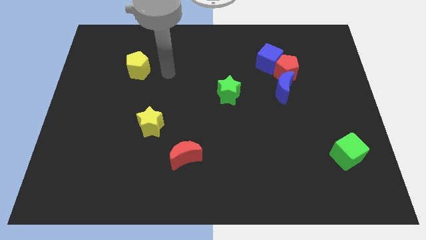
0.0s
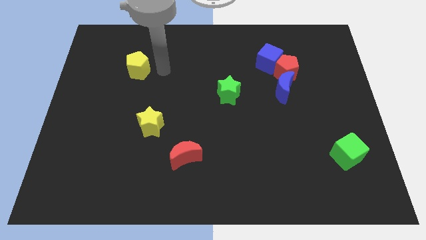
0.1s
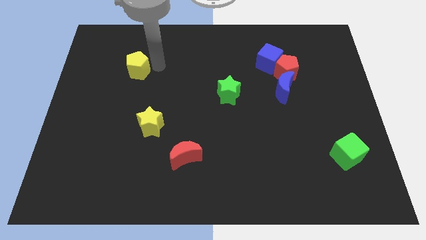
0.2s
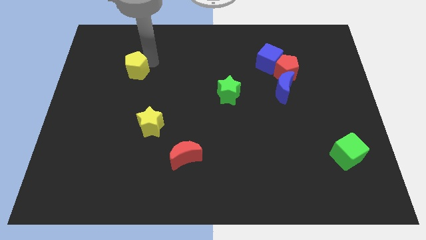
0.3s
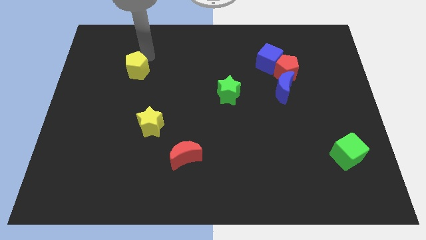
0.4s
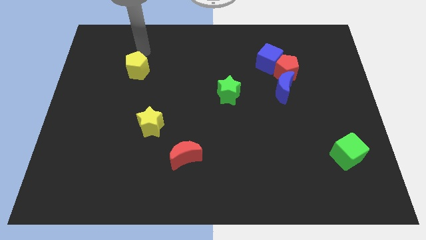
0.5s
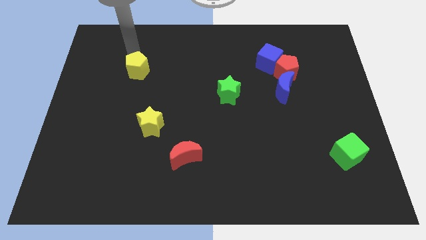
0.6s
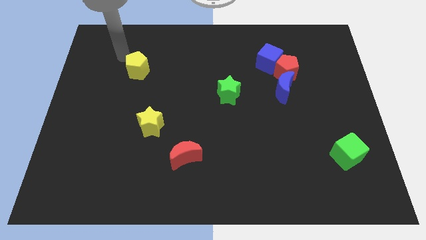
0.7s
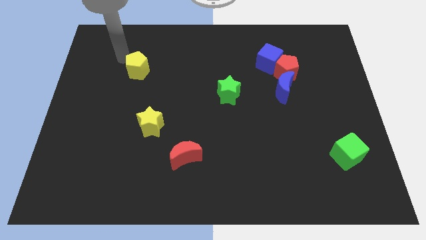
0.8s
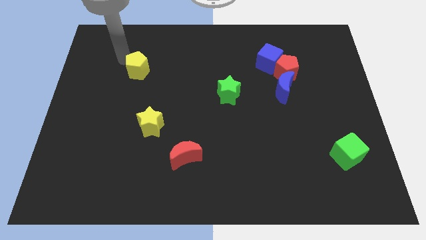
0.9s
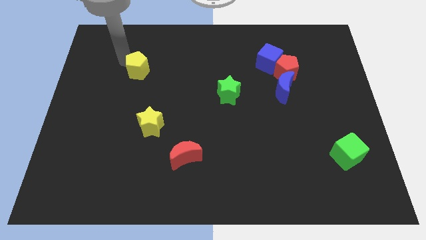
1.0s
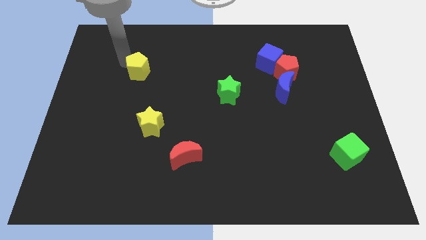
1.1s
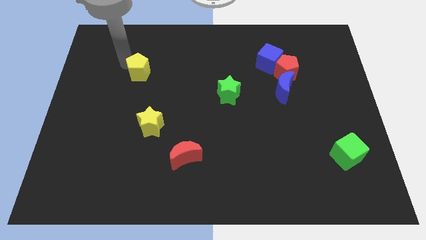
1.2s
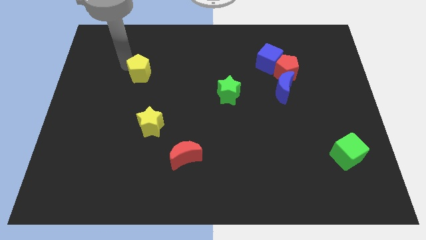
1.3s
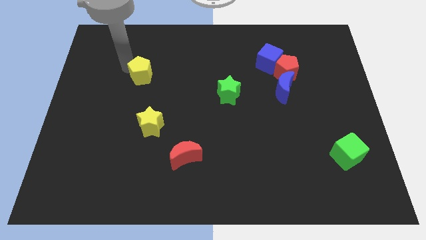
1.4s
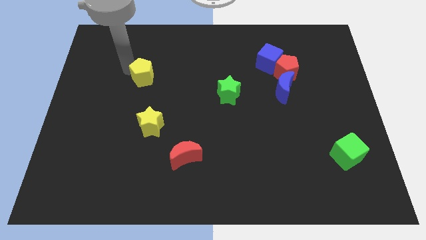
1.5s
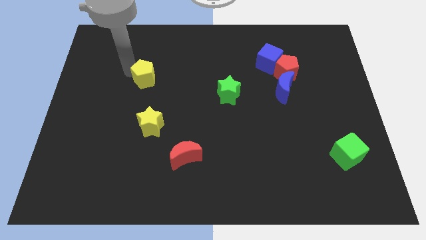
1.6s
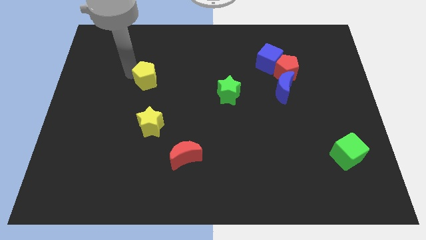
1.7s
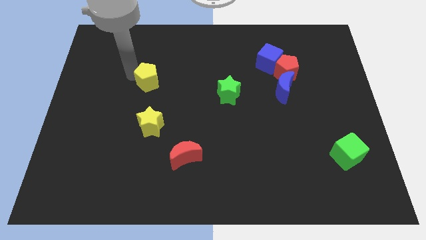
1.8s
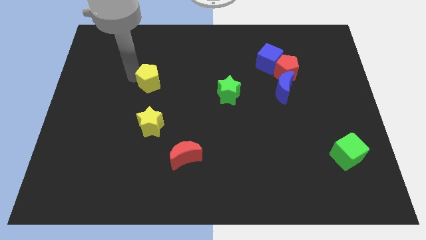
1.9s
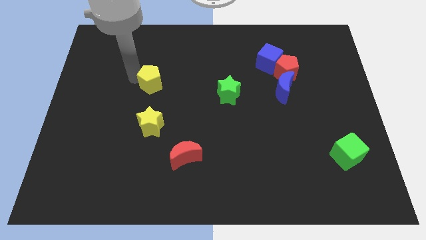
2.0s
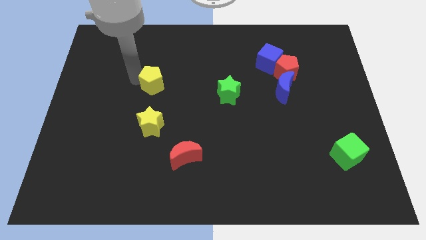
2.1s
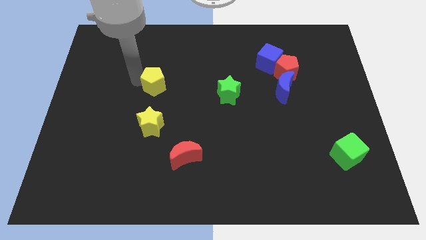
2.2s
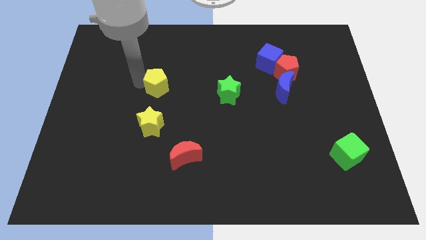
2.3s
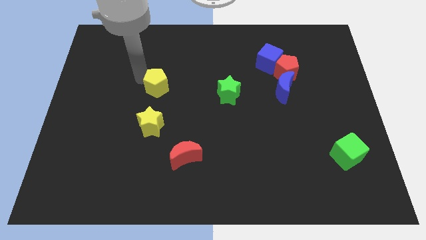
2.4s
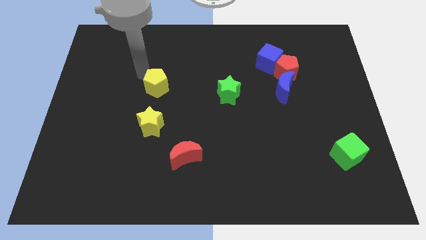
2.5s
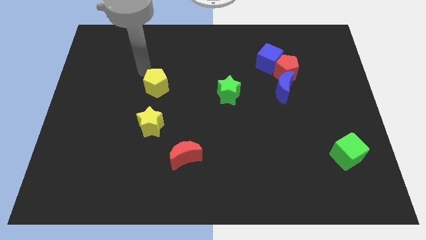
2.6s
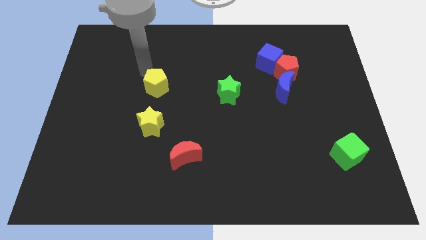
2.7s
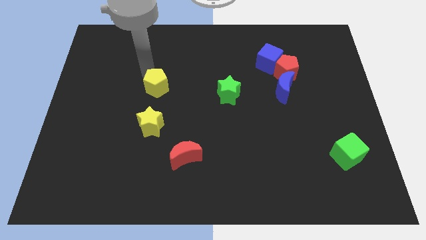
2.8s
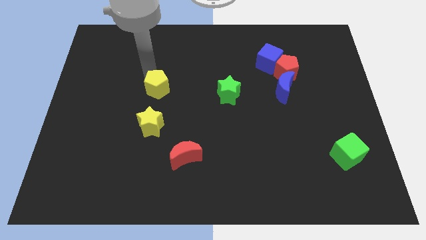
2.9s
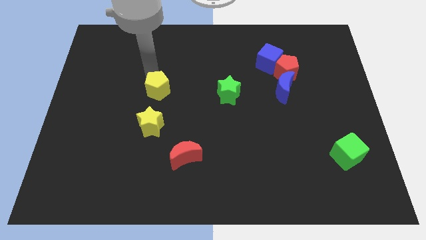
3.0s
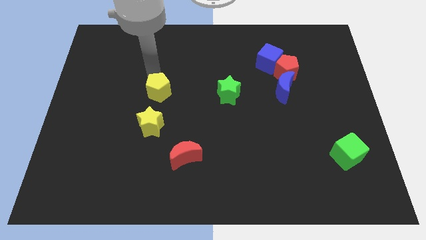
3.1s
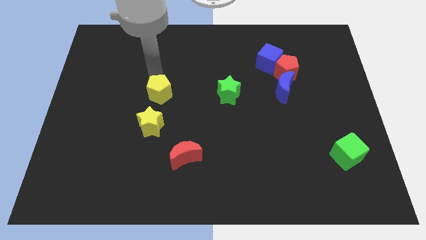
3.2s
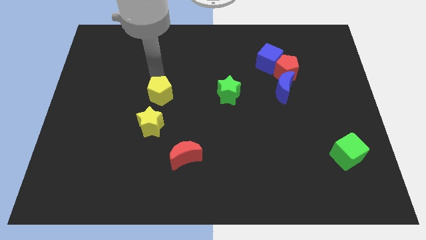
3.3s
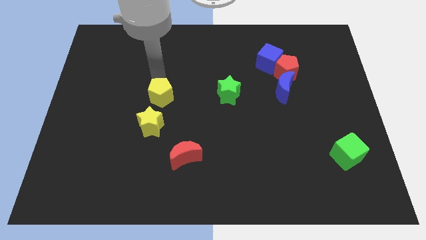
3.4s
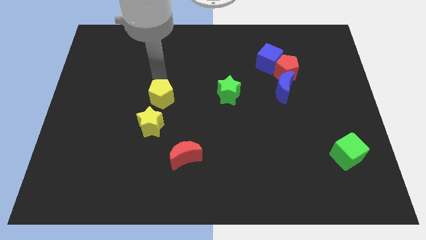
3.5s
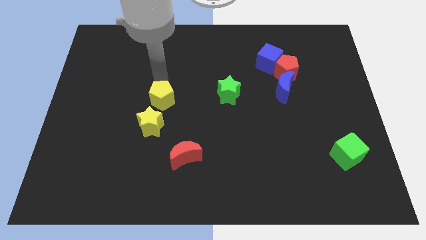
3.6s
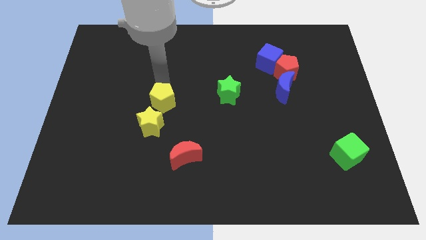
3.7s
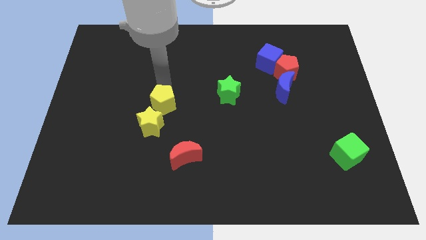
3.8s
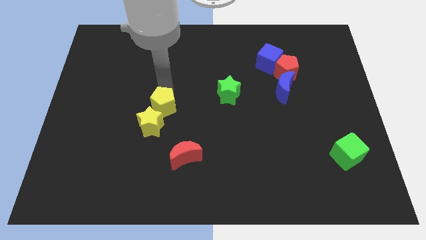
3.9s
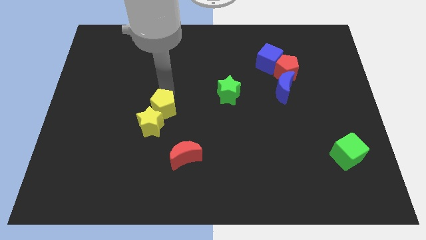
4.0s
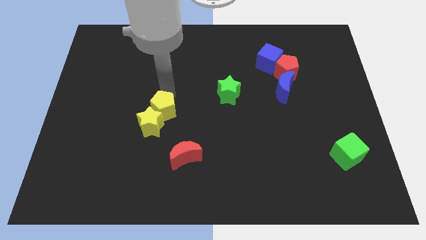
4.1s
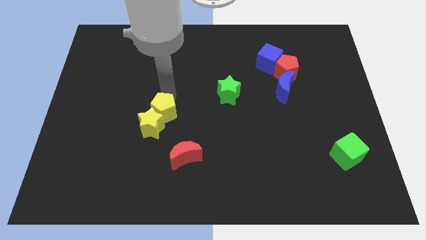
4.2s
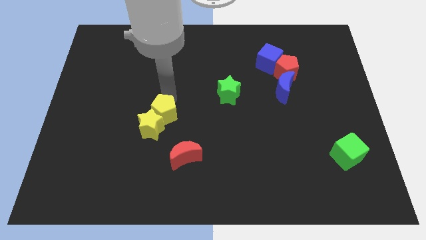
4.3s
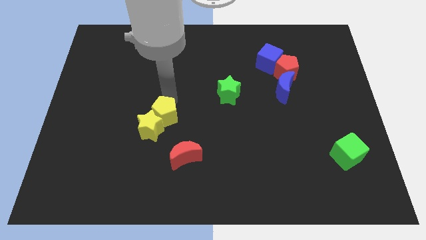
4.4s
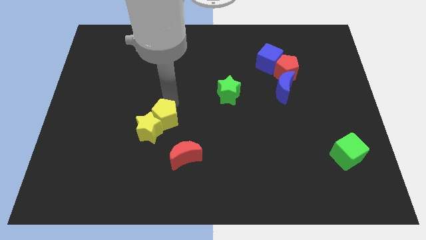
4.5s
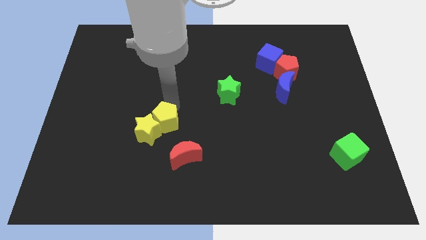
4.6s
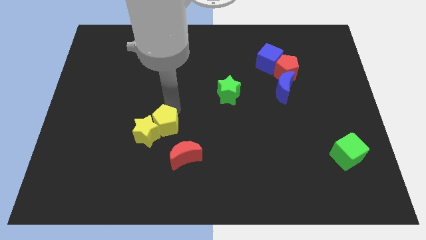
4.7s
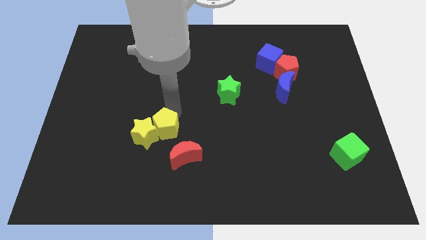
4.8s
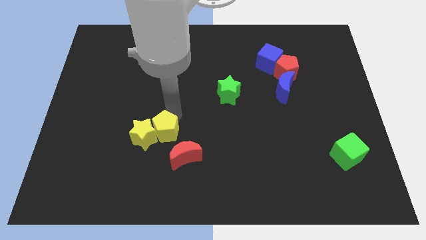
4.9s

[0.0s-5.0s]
put the yellow pentagon diagonally down and to the right of the yellow star

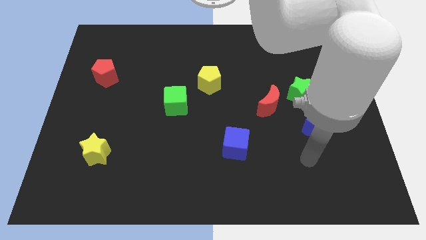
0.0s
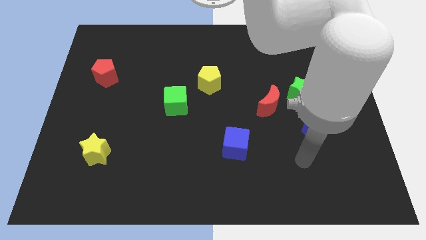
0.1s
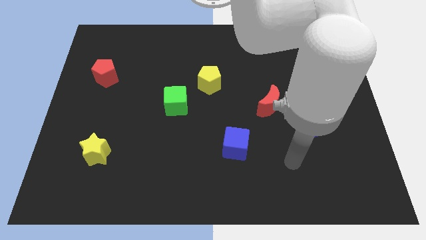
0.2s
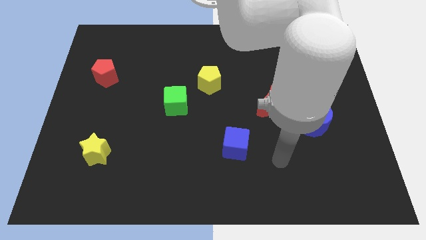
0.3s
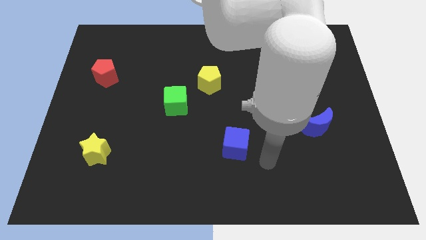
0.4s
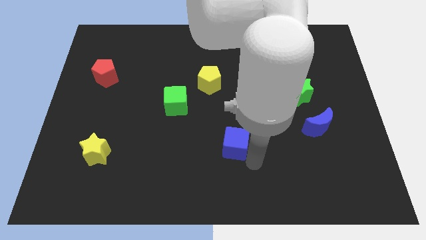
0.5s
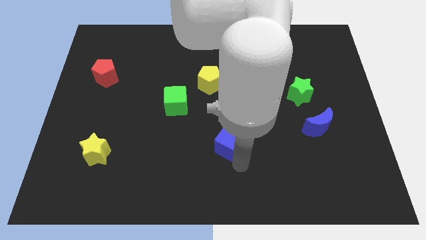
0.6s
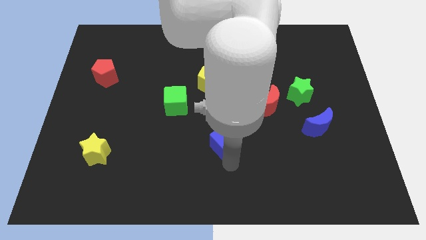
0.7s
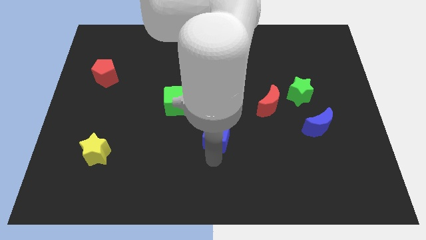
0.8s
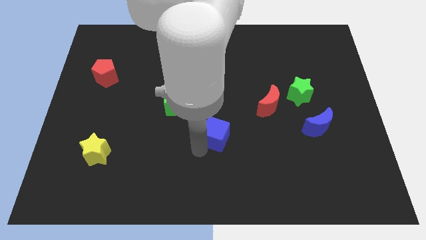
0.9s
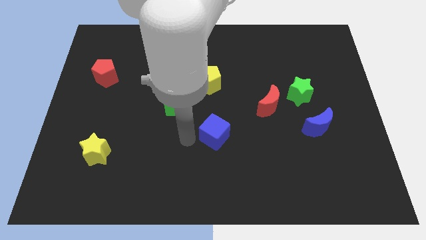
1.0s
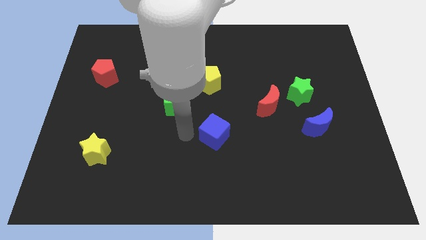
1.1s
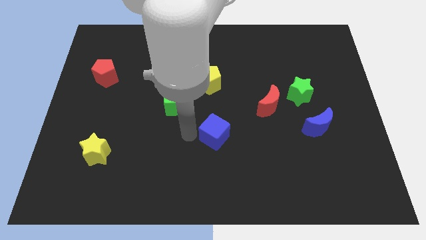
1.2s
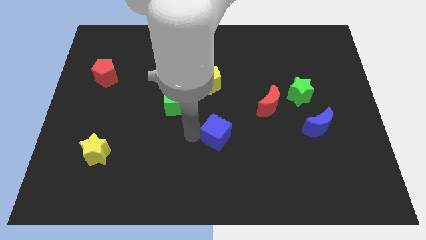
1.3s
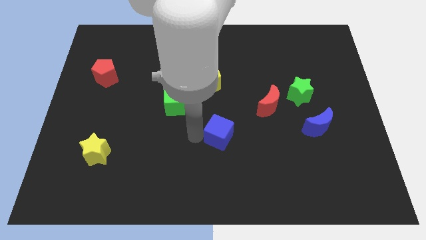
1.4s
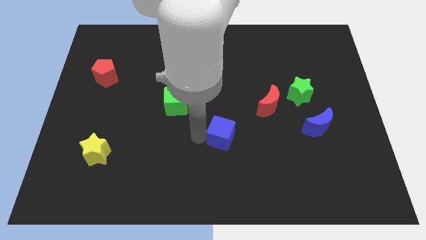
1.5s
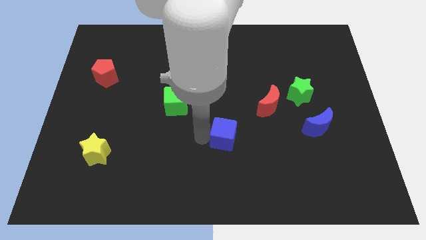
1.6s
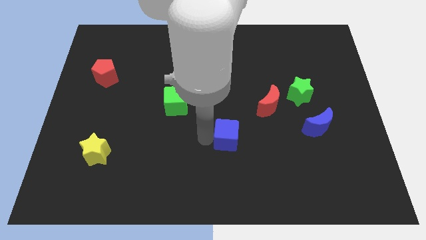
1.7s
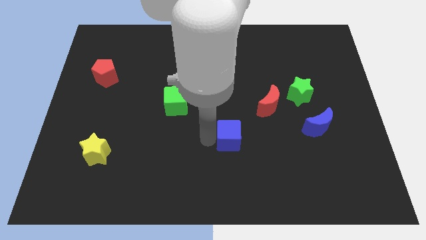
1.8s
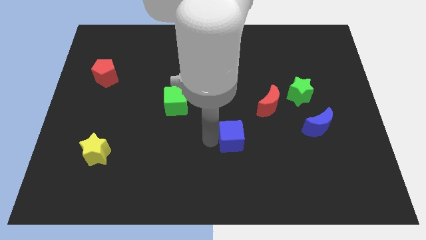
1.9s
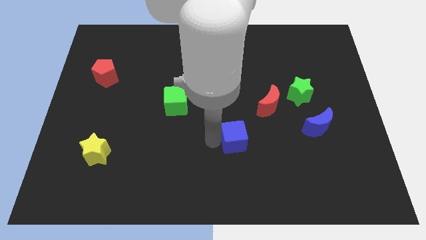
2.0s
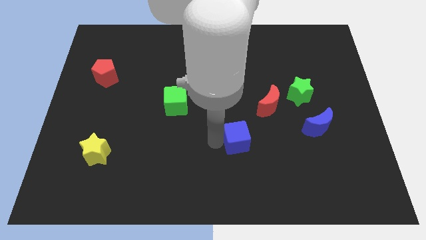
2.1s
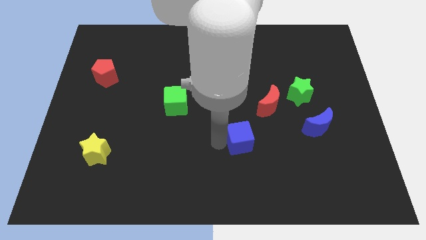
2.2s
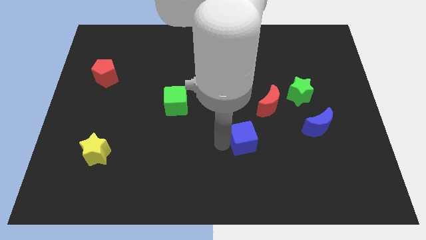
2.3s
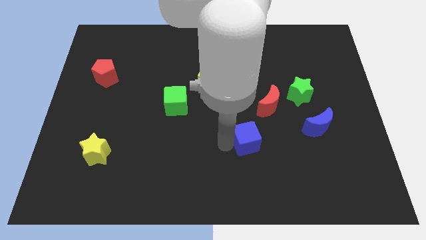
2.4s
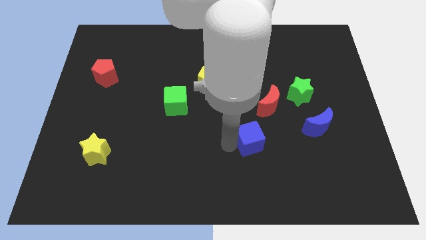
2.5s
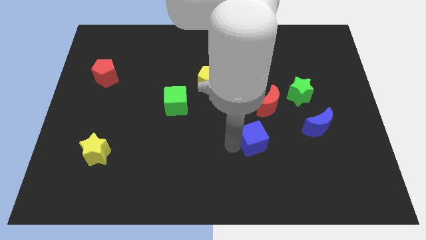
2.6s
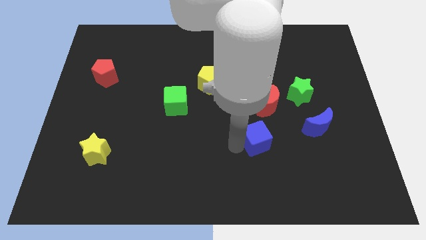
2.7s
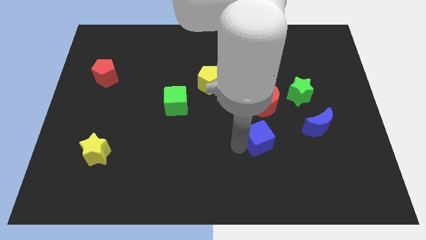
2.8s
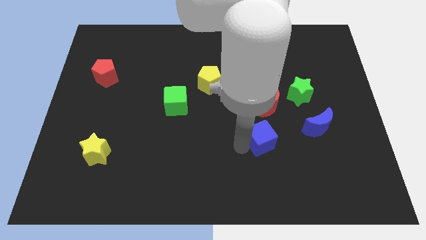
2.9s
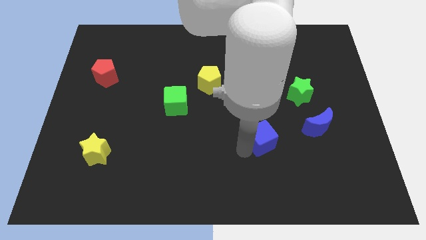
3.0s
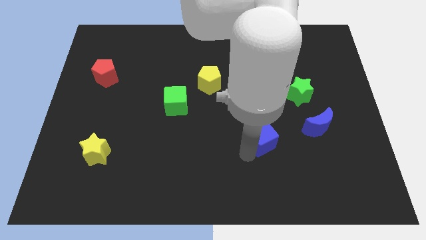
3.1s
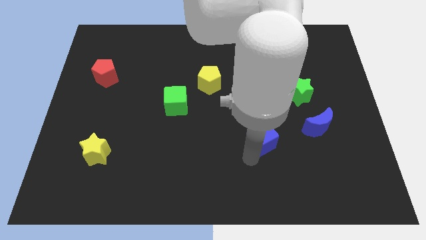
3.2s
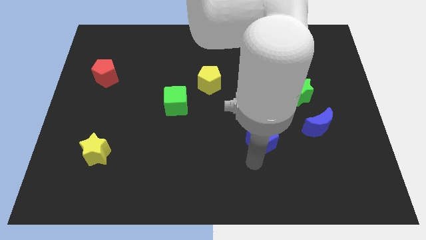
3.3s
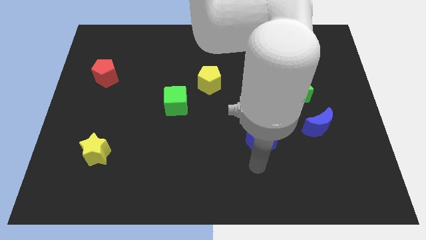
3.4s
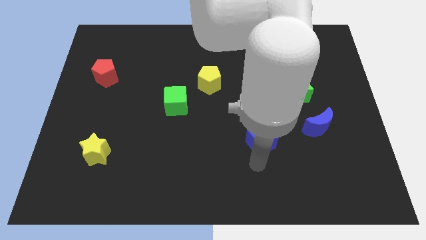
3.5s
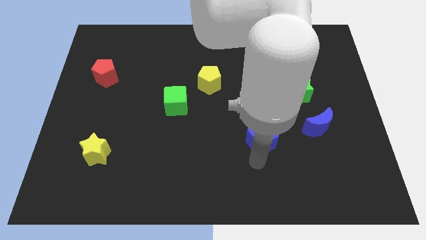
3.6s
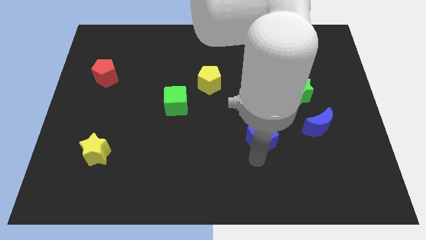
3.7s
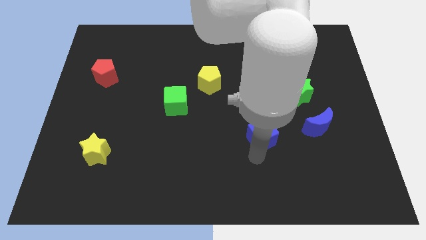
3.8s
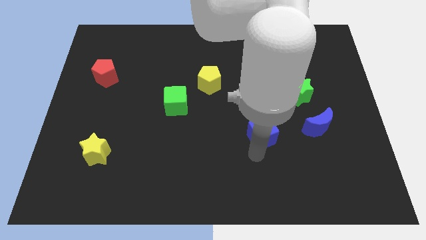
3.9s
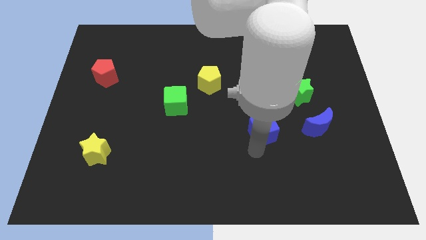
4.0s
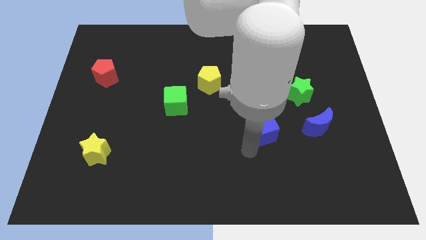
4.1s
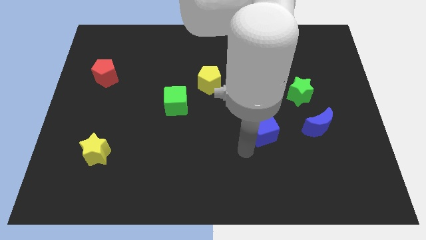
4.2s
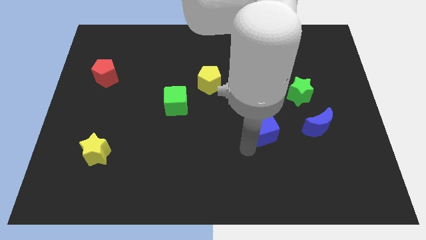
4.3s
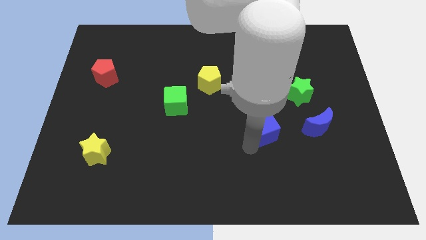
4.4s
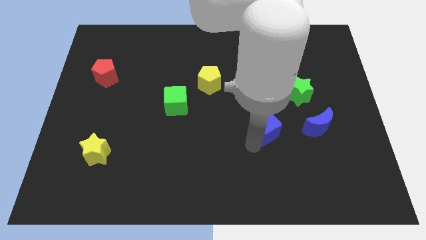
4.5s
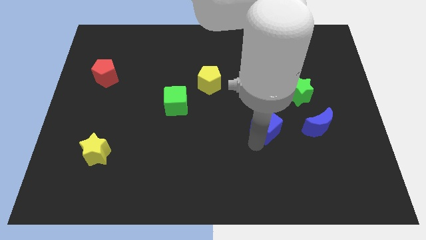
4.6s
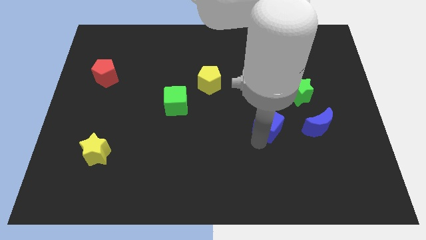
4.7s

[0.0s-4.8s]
slide the blue cube to the bottom left of the green star
